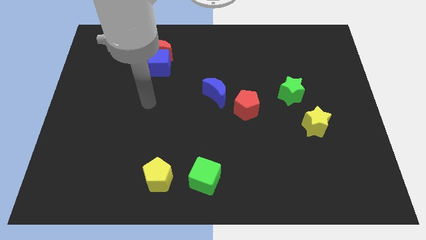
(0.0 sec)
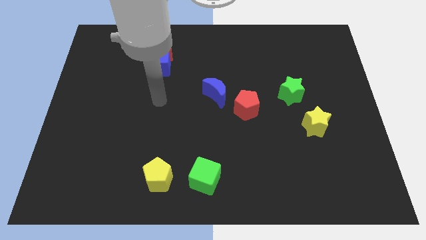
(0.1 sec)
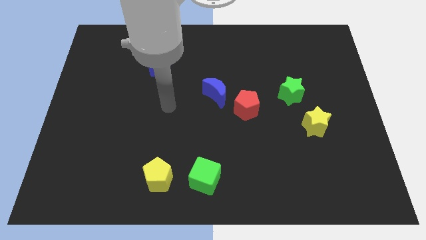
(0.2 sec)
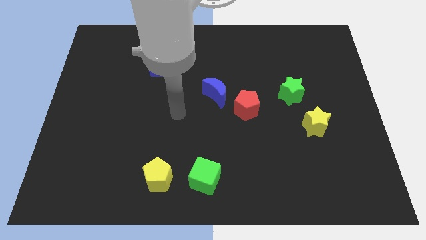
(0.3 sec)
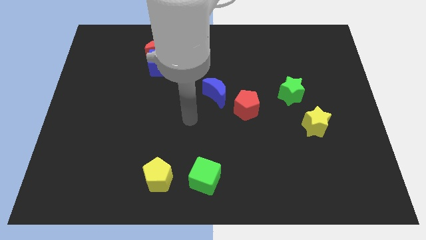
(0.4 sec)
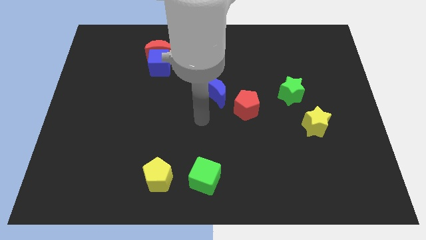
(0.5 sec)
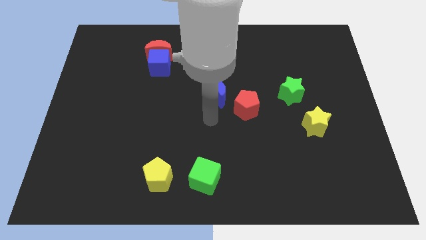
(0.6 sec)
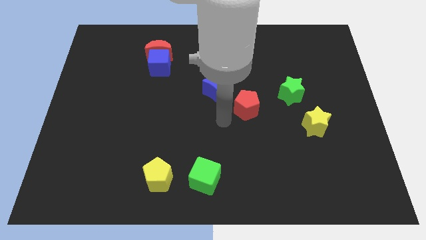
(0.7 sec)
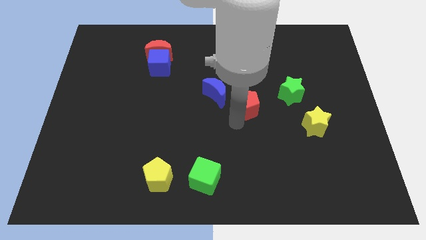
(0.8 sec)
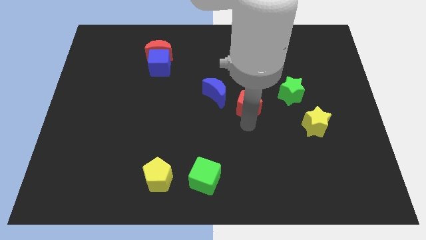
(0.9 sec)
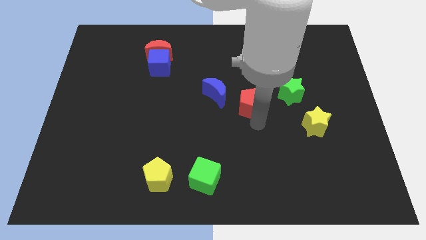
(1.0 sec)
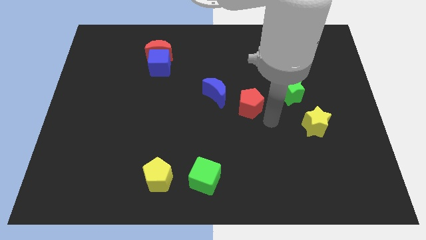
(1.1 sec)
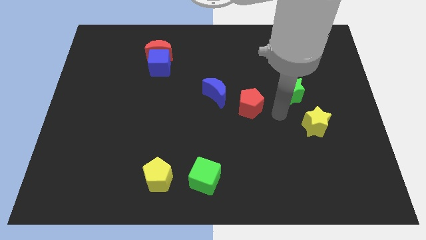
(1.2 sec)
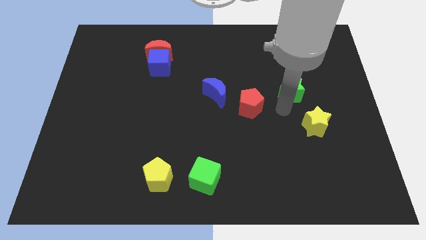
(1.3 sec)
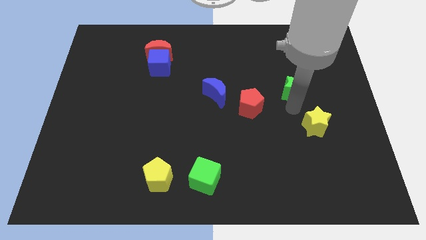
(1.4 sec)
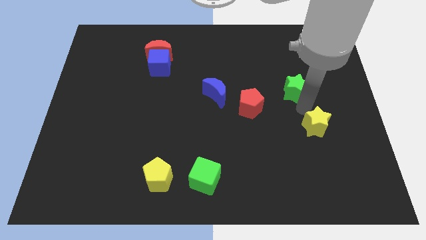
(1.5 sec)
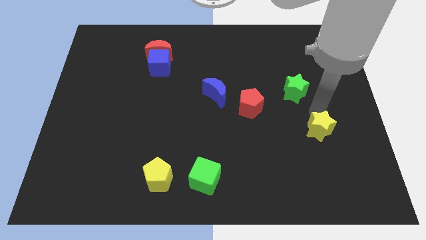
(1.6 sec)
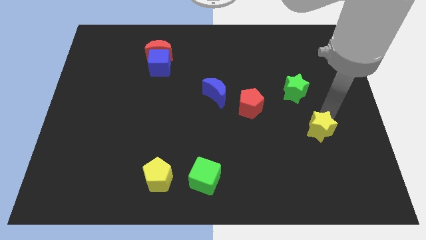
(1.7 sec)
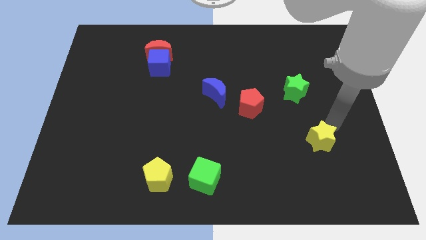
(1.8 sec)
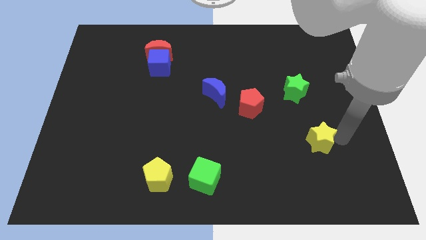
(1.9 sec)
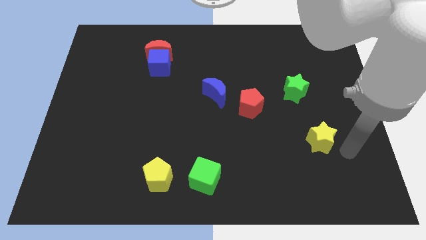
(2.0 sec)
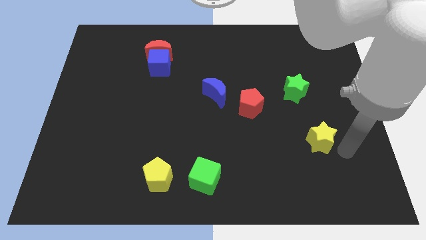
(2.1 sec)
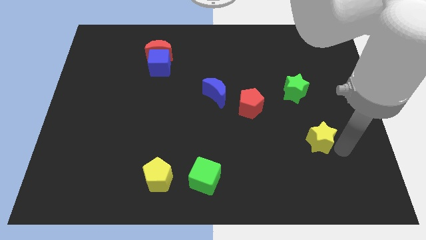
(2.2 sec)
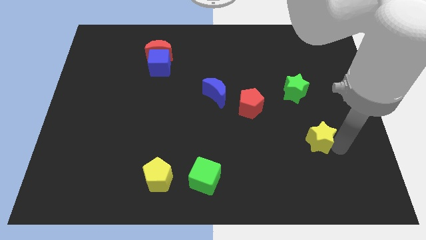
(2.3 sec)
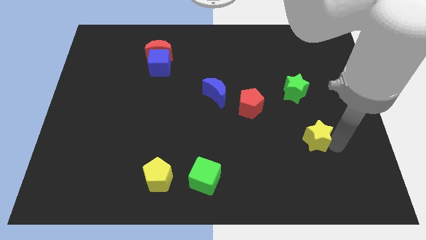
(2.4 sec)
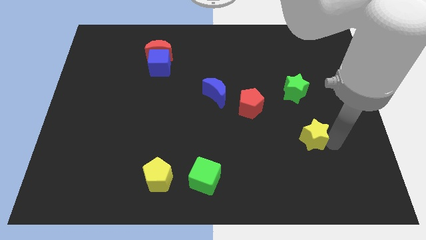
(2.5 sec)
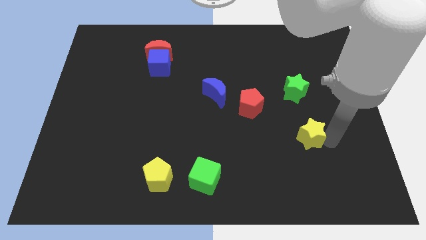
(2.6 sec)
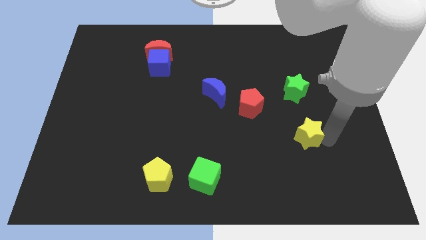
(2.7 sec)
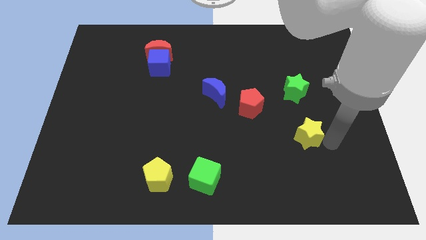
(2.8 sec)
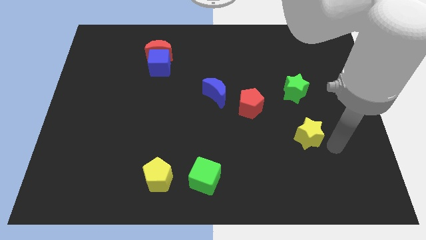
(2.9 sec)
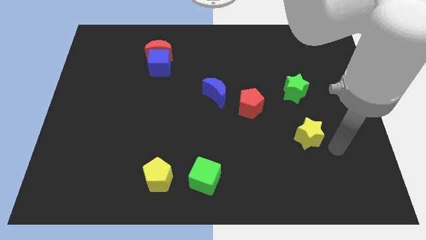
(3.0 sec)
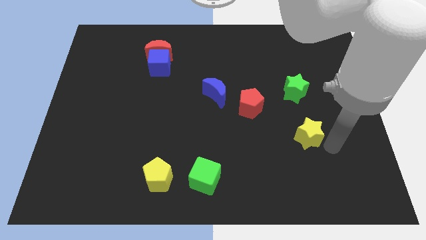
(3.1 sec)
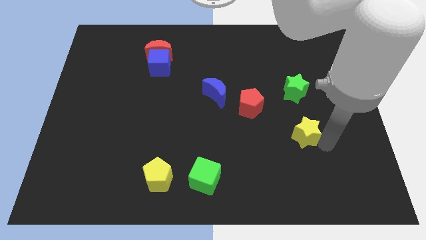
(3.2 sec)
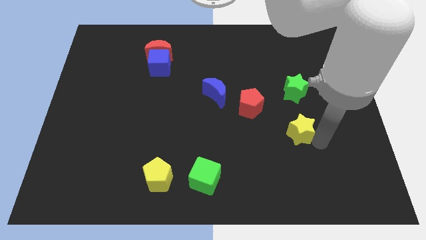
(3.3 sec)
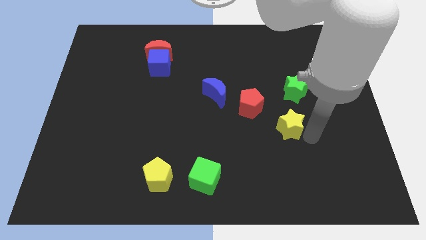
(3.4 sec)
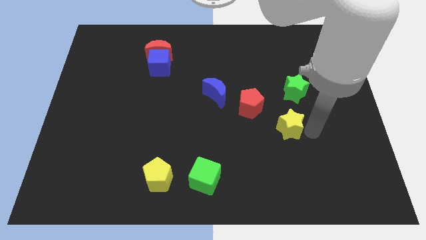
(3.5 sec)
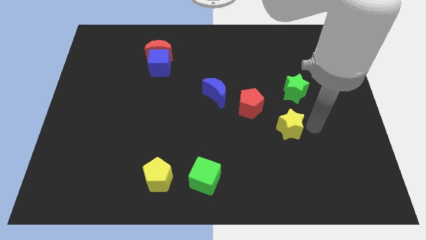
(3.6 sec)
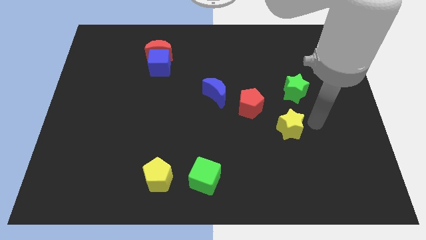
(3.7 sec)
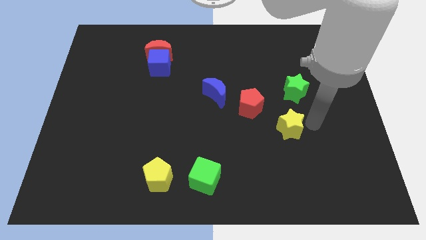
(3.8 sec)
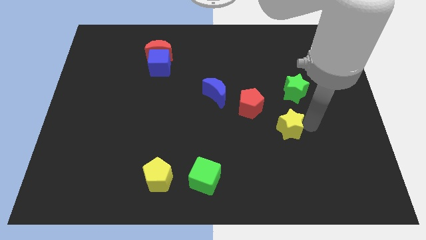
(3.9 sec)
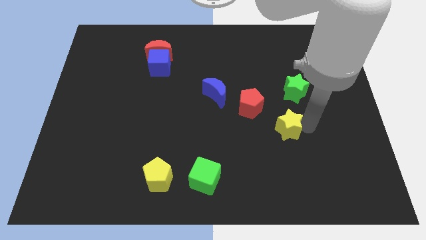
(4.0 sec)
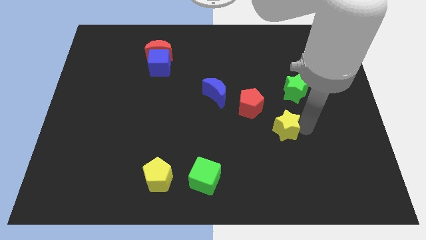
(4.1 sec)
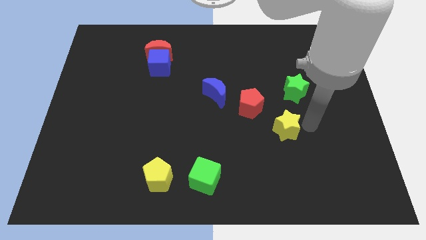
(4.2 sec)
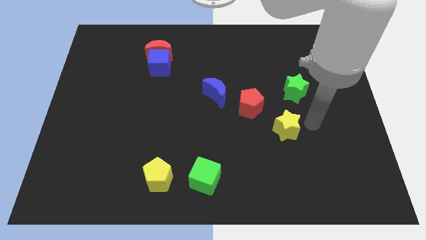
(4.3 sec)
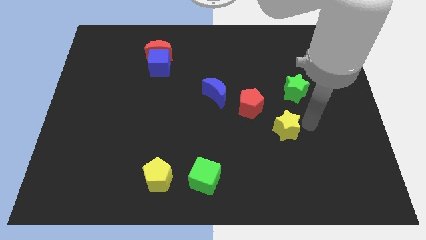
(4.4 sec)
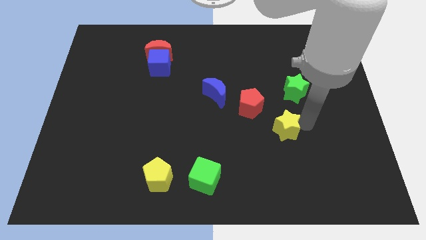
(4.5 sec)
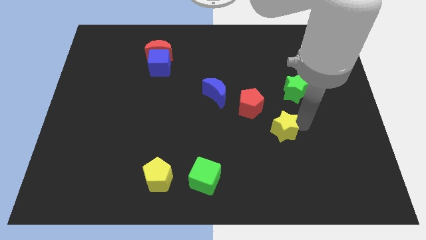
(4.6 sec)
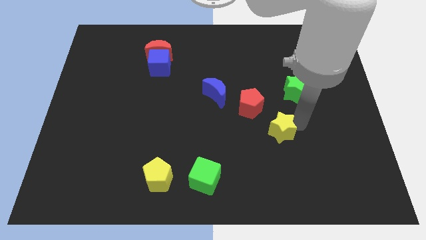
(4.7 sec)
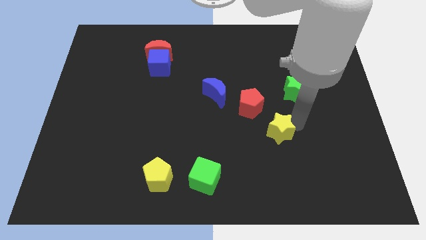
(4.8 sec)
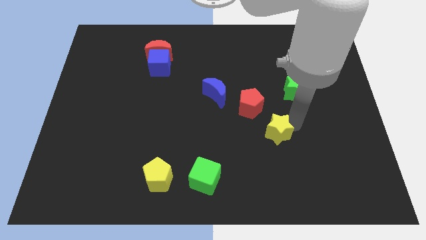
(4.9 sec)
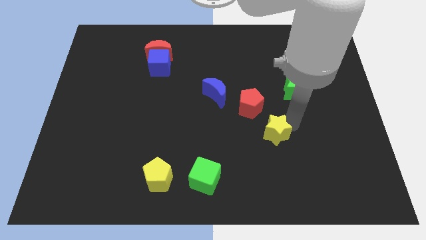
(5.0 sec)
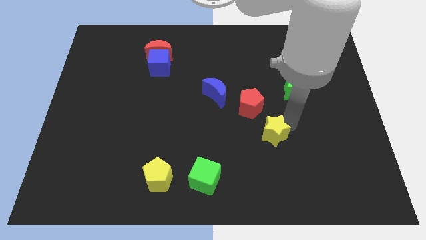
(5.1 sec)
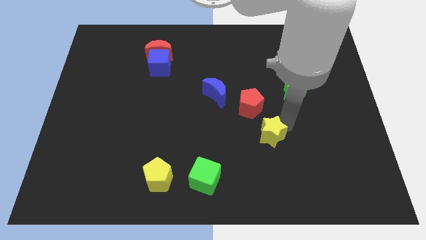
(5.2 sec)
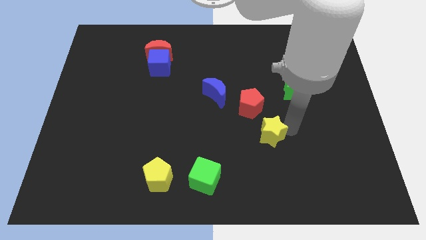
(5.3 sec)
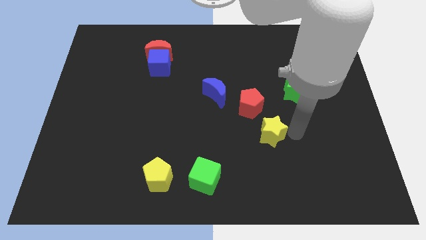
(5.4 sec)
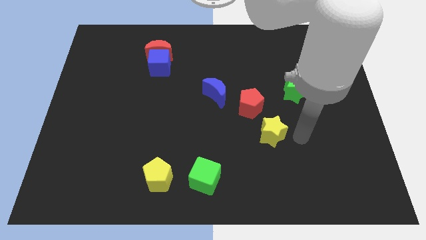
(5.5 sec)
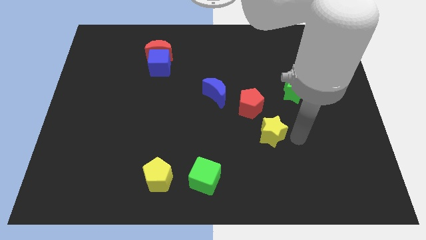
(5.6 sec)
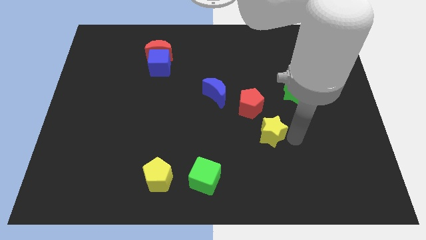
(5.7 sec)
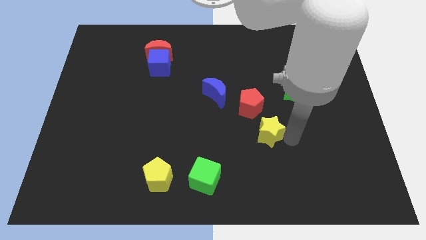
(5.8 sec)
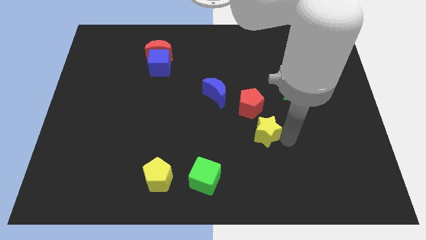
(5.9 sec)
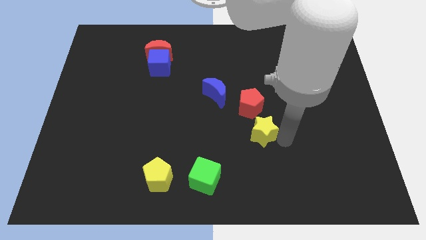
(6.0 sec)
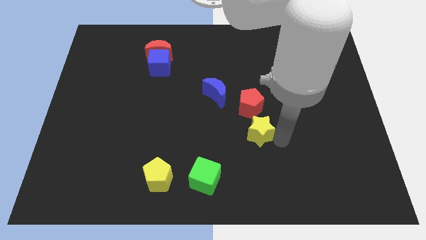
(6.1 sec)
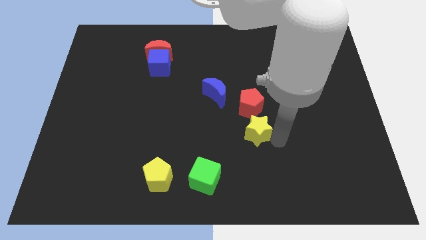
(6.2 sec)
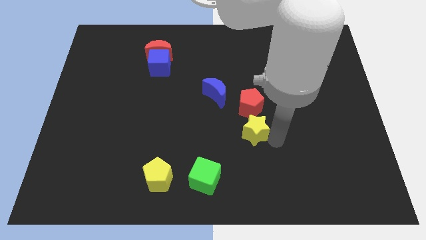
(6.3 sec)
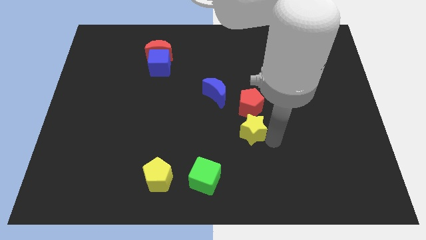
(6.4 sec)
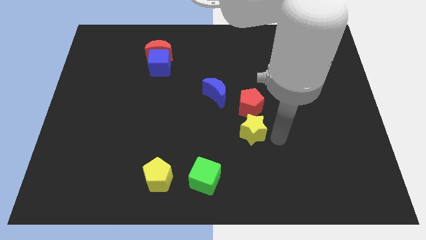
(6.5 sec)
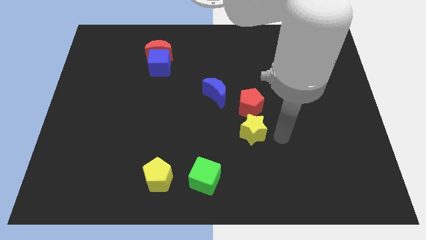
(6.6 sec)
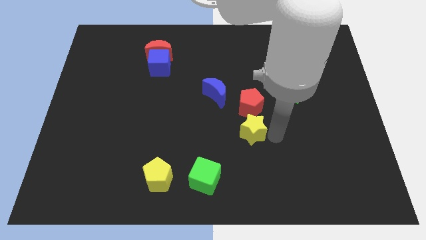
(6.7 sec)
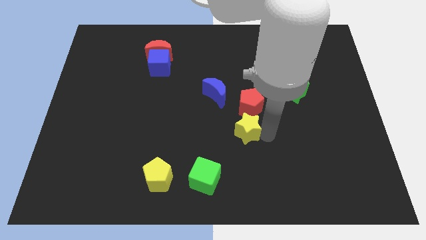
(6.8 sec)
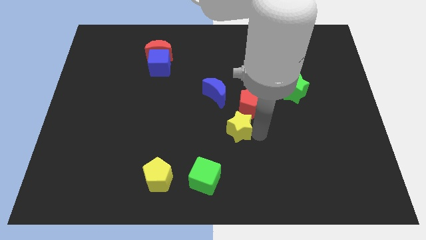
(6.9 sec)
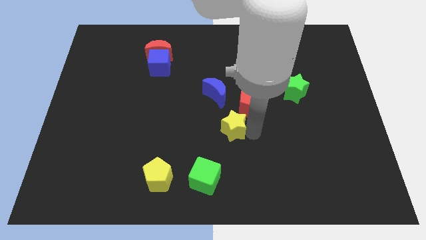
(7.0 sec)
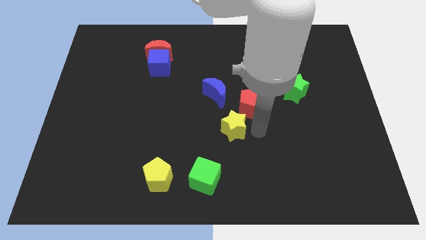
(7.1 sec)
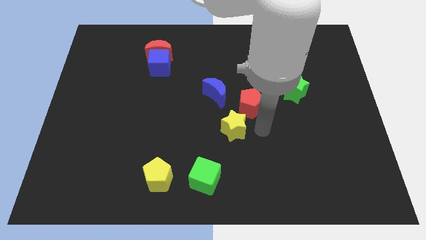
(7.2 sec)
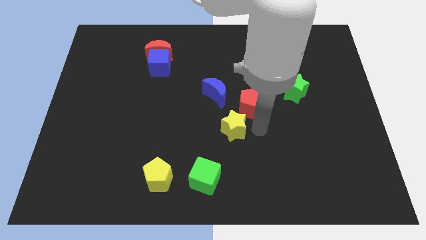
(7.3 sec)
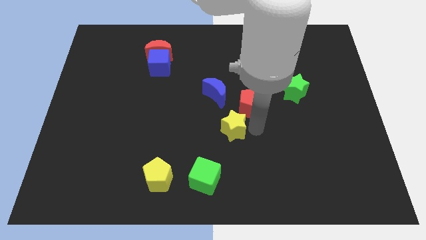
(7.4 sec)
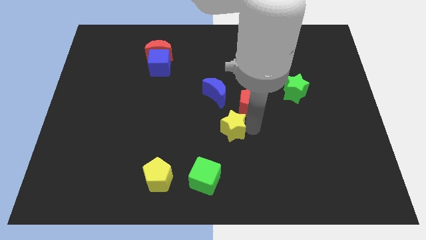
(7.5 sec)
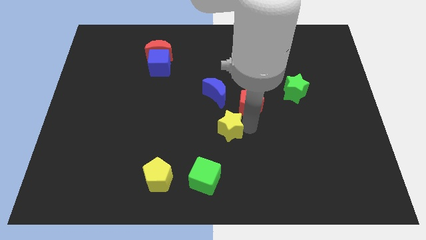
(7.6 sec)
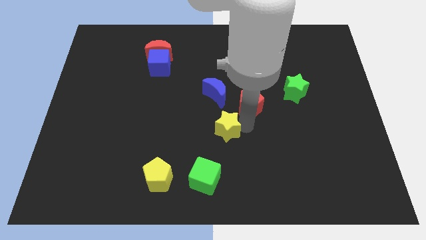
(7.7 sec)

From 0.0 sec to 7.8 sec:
push the yellow star to the left

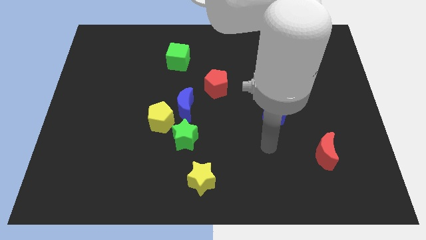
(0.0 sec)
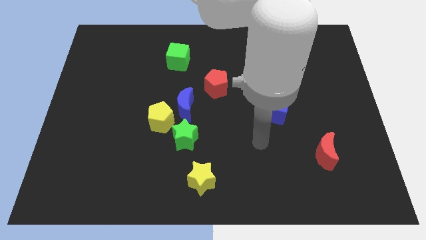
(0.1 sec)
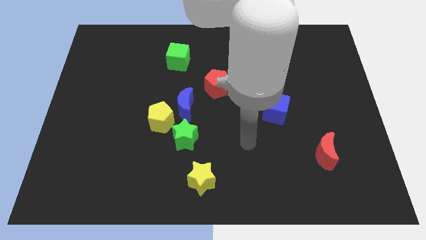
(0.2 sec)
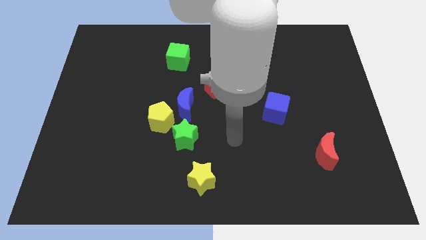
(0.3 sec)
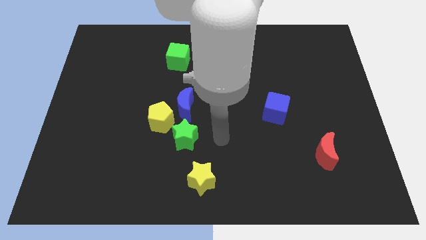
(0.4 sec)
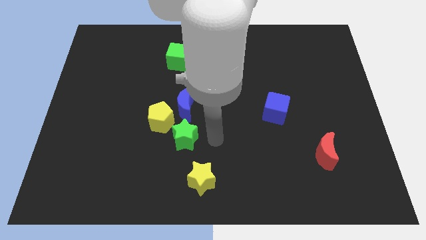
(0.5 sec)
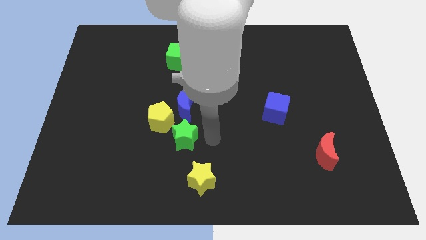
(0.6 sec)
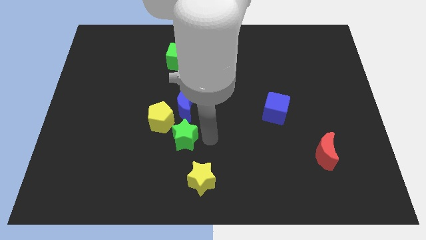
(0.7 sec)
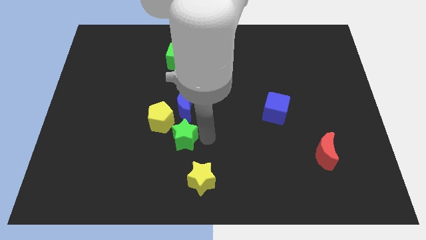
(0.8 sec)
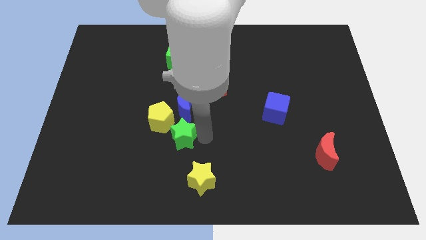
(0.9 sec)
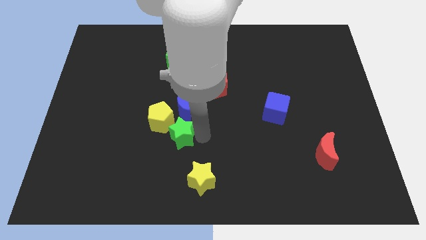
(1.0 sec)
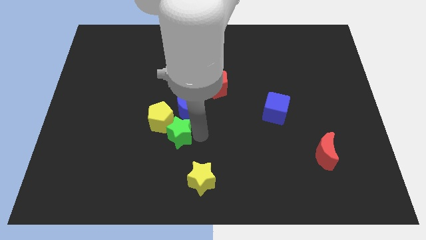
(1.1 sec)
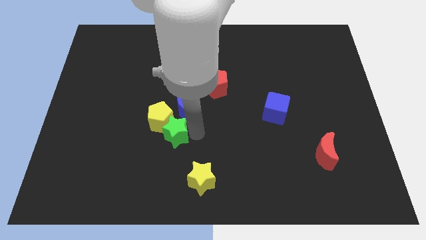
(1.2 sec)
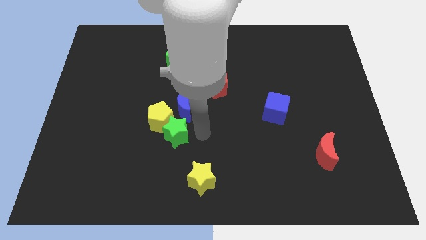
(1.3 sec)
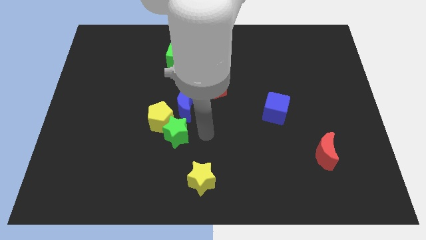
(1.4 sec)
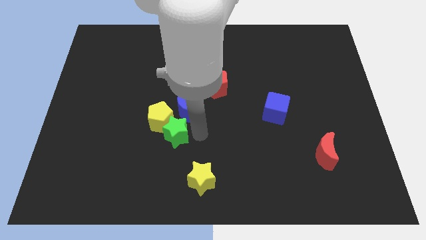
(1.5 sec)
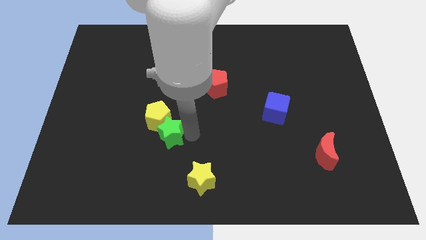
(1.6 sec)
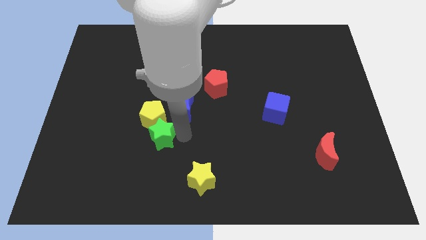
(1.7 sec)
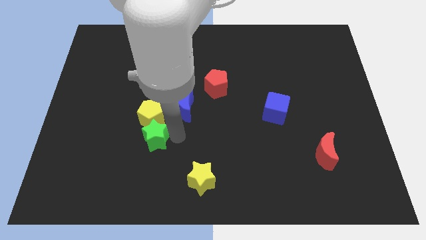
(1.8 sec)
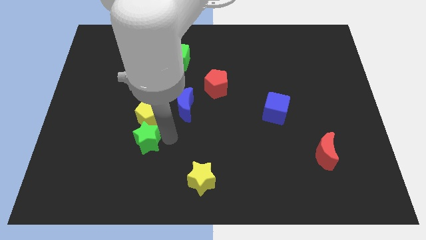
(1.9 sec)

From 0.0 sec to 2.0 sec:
slide the green star slightly to the left
